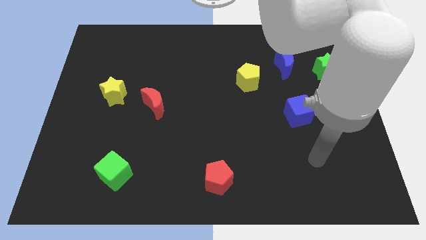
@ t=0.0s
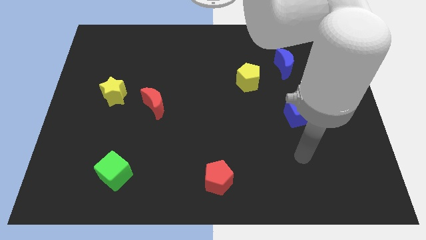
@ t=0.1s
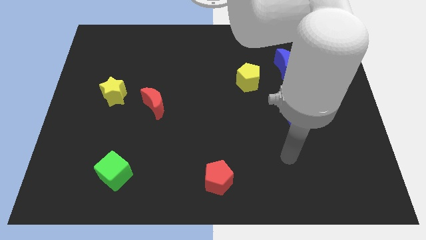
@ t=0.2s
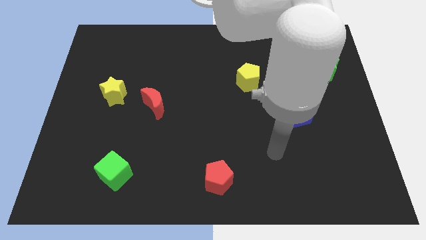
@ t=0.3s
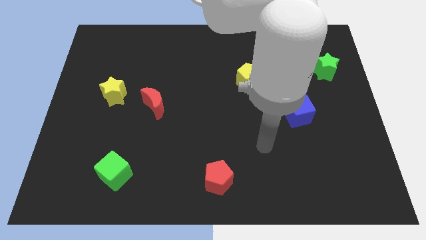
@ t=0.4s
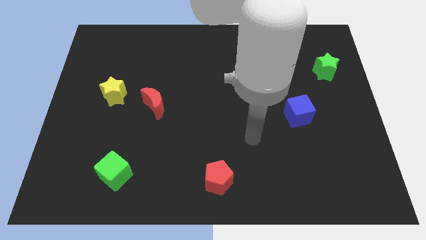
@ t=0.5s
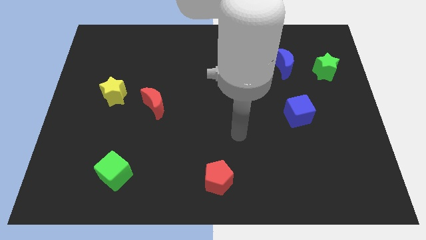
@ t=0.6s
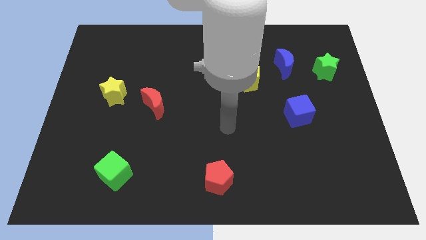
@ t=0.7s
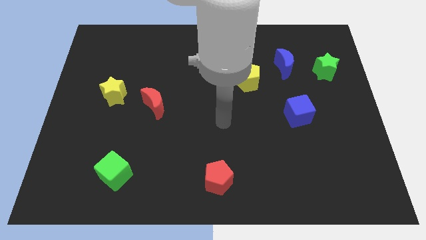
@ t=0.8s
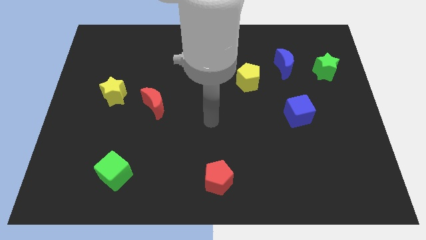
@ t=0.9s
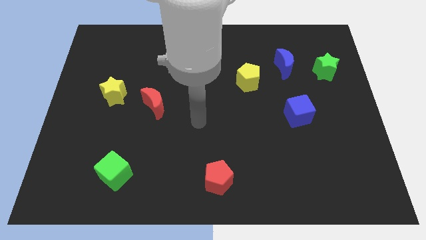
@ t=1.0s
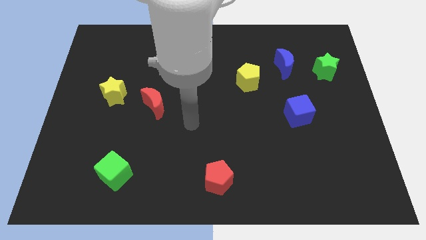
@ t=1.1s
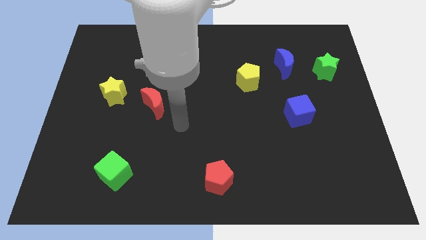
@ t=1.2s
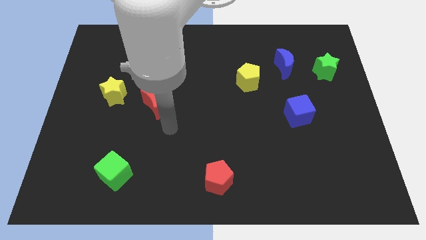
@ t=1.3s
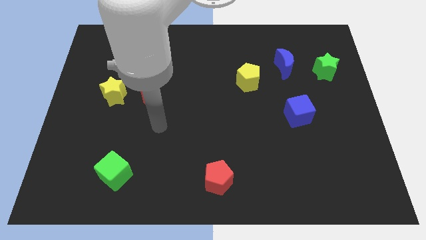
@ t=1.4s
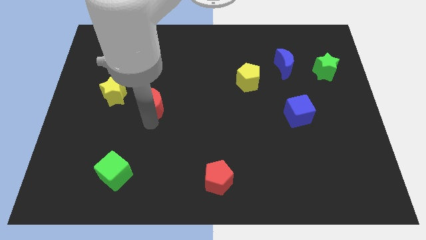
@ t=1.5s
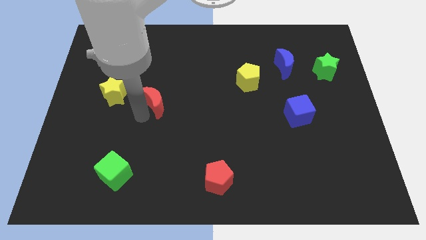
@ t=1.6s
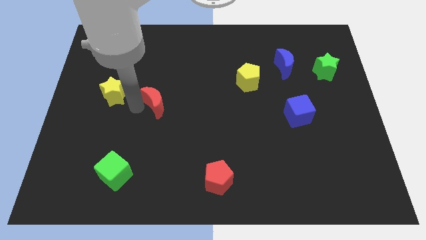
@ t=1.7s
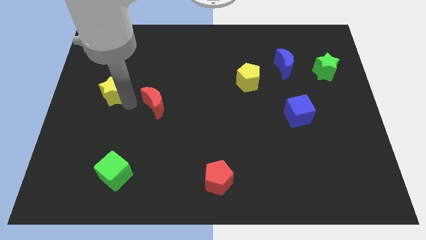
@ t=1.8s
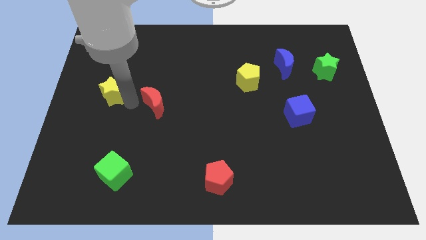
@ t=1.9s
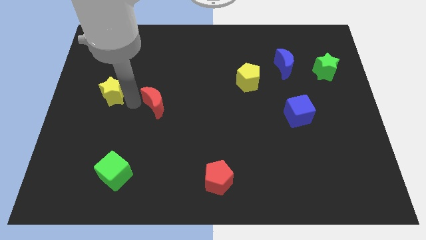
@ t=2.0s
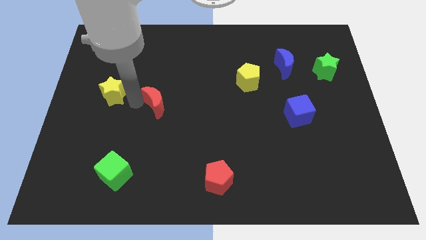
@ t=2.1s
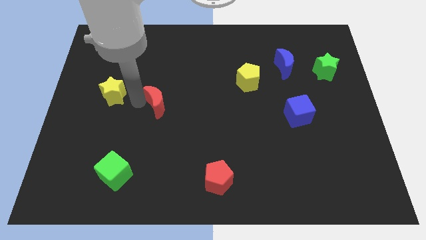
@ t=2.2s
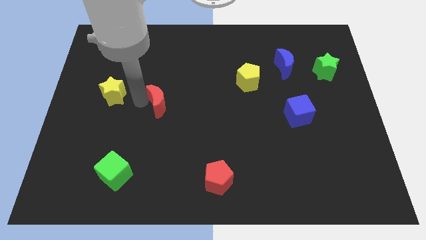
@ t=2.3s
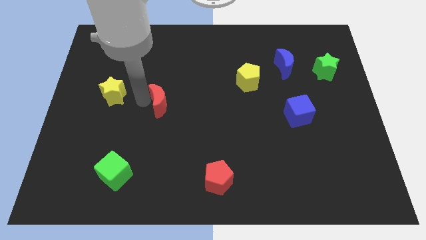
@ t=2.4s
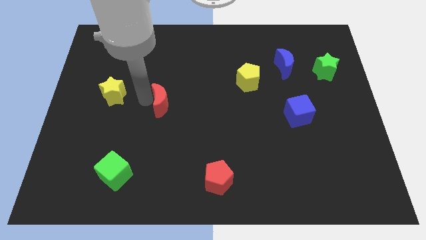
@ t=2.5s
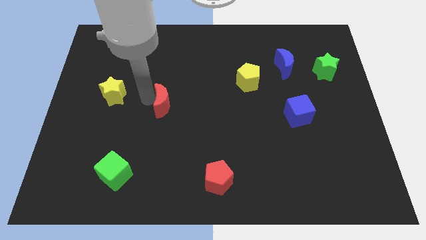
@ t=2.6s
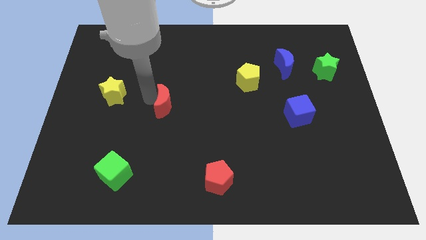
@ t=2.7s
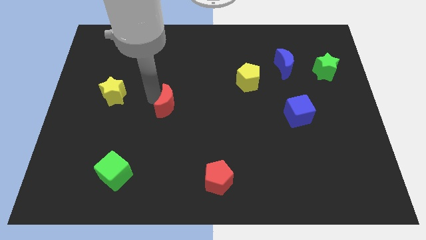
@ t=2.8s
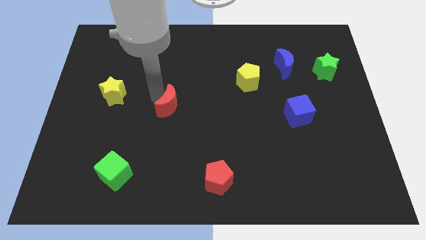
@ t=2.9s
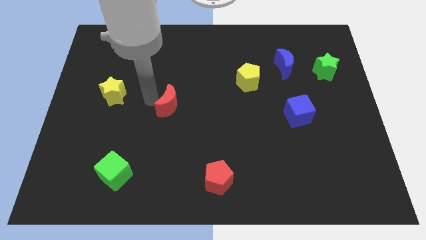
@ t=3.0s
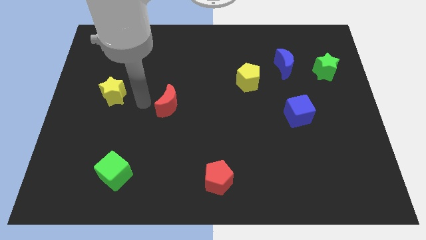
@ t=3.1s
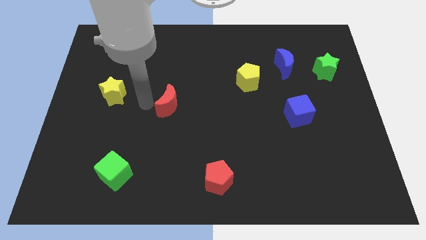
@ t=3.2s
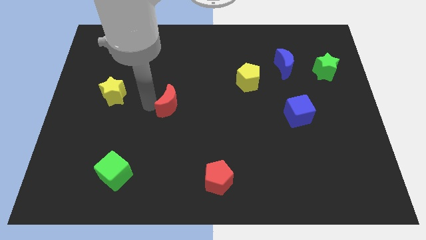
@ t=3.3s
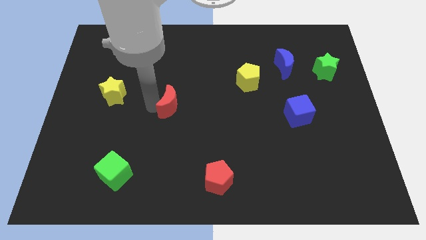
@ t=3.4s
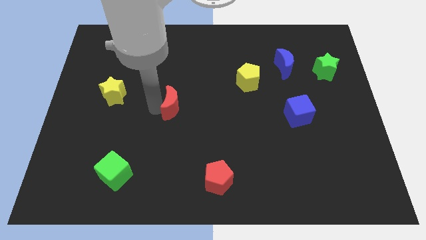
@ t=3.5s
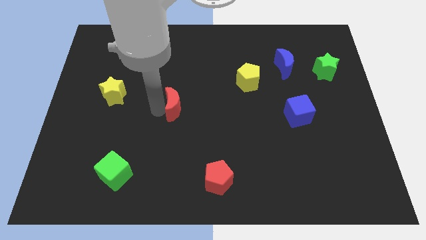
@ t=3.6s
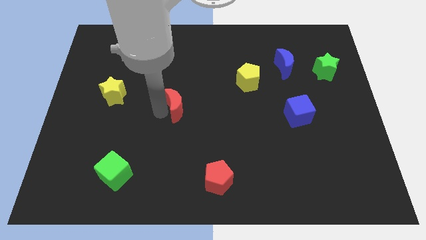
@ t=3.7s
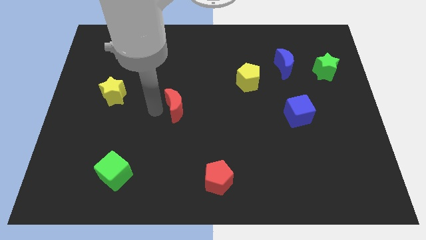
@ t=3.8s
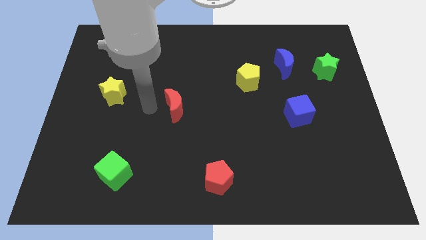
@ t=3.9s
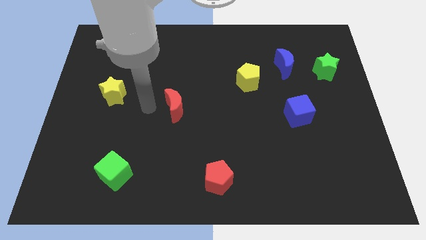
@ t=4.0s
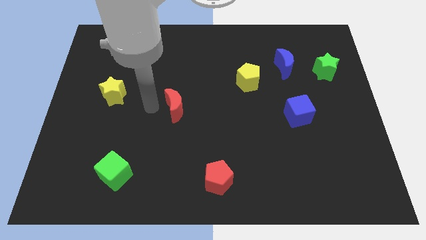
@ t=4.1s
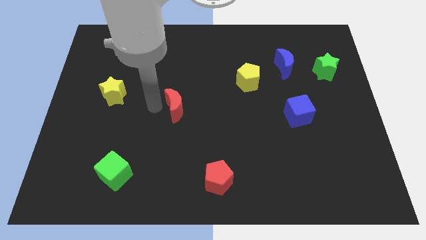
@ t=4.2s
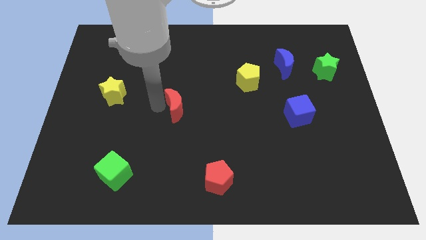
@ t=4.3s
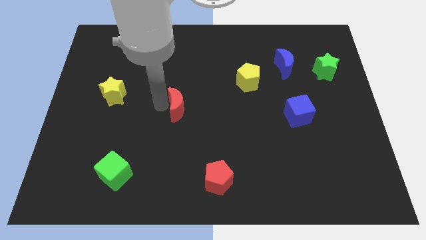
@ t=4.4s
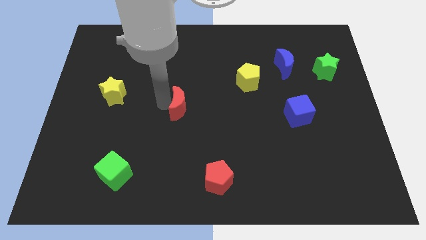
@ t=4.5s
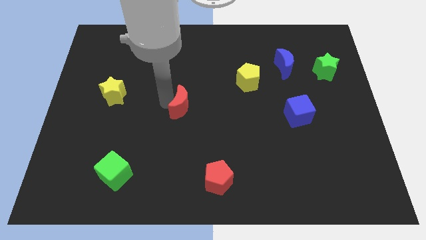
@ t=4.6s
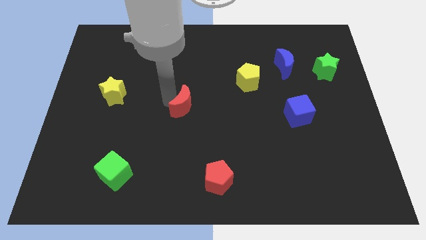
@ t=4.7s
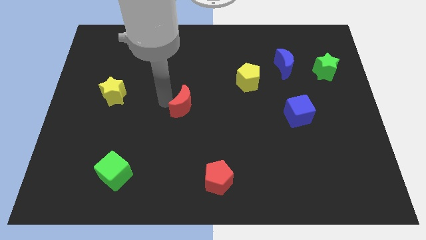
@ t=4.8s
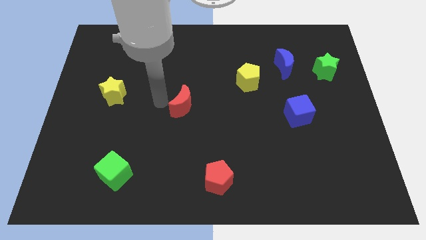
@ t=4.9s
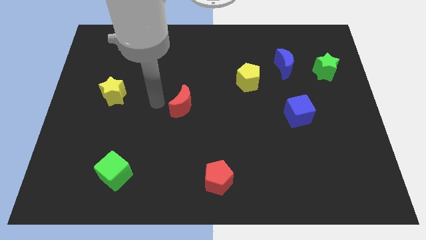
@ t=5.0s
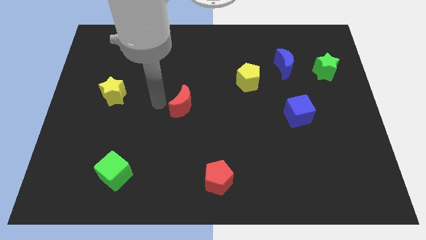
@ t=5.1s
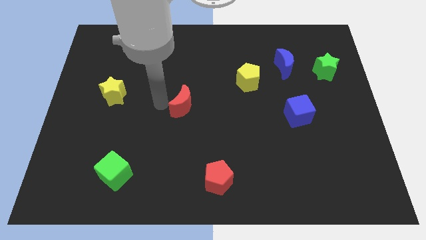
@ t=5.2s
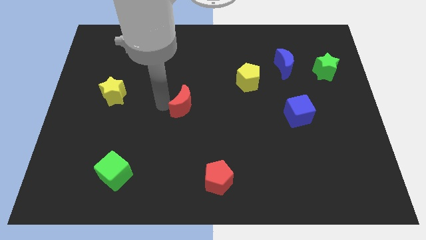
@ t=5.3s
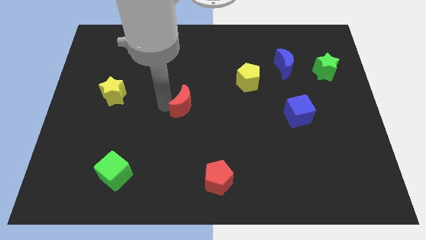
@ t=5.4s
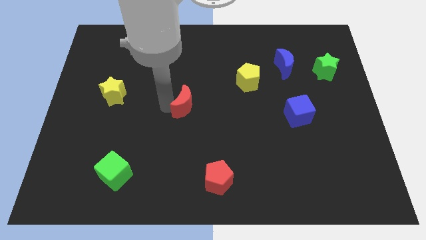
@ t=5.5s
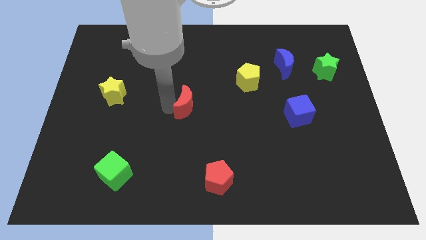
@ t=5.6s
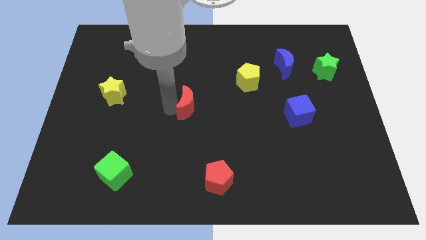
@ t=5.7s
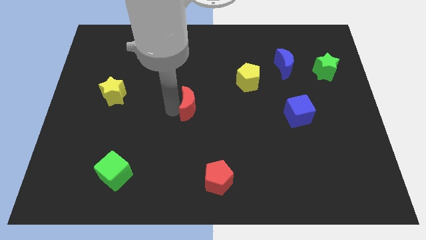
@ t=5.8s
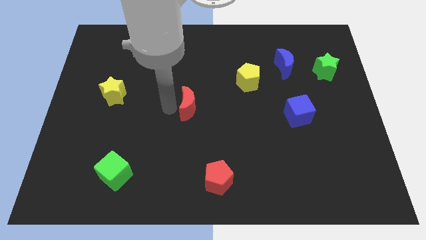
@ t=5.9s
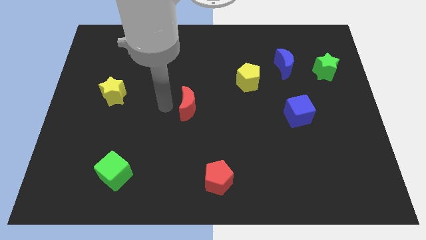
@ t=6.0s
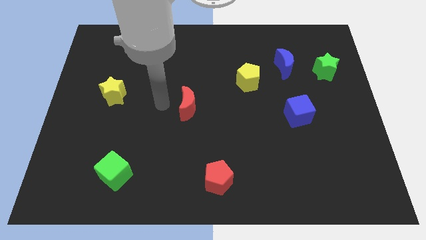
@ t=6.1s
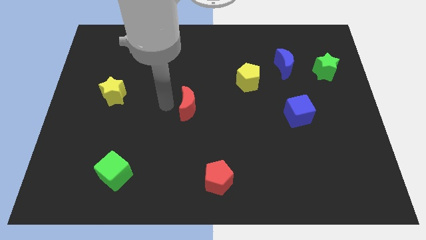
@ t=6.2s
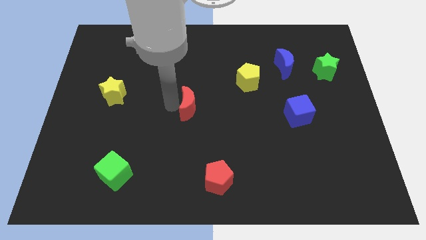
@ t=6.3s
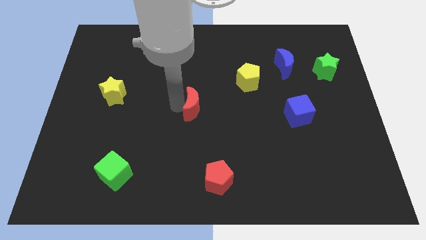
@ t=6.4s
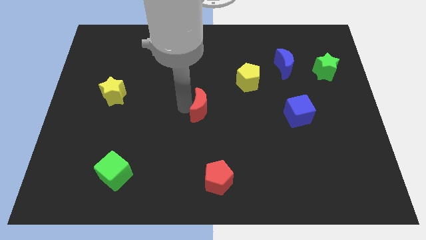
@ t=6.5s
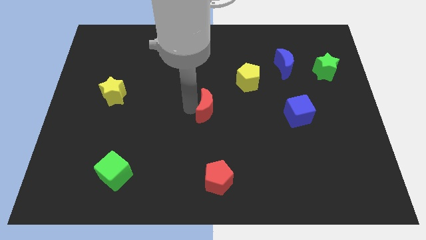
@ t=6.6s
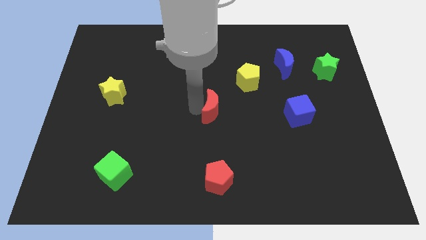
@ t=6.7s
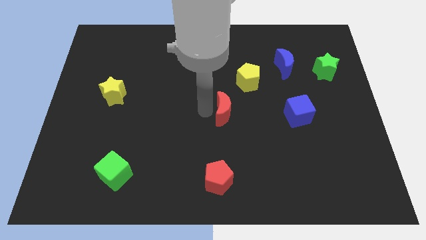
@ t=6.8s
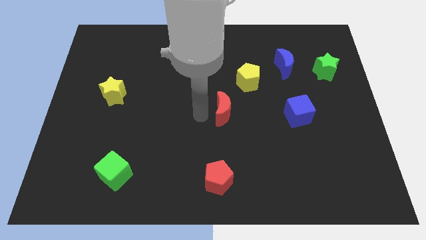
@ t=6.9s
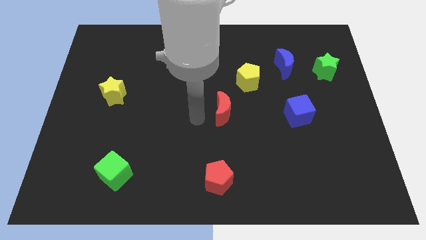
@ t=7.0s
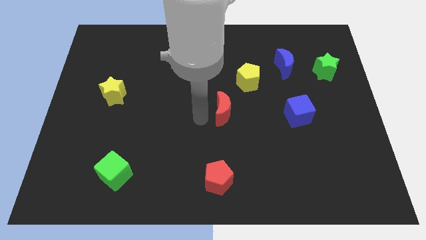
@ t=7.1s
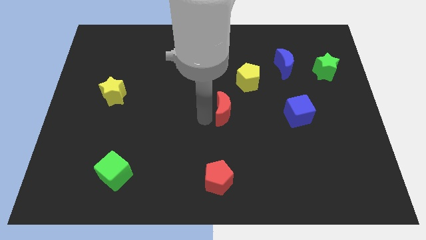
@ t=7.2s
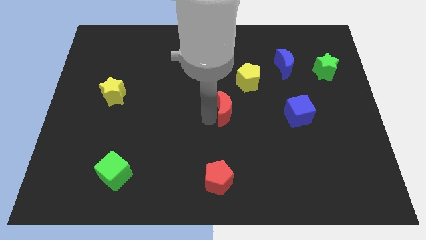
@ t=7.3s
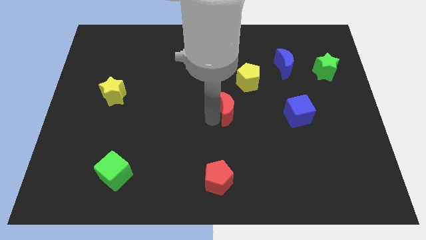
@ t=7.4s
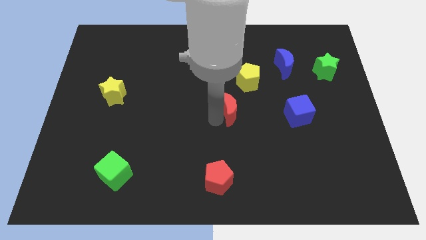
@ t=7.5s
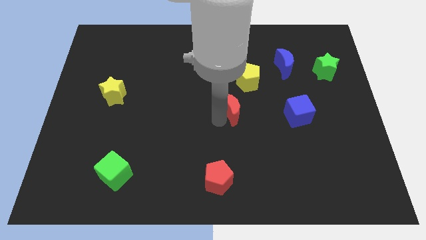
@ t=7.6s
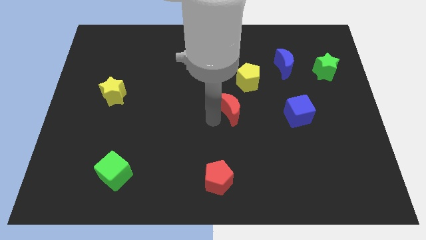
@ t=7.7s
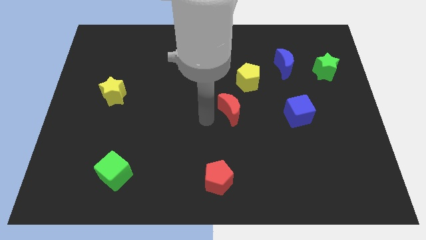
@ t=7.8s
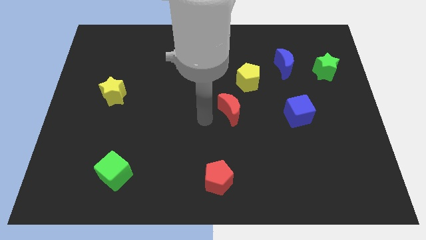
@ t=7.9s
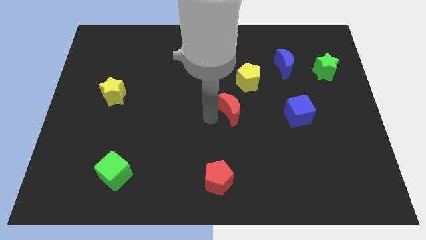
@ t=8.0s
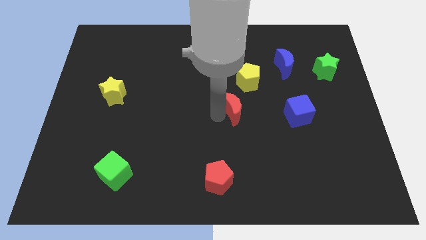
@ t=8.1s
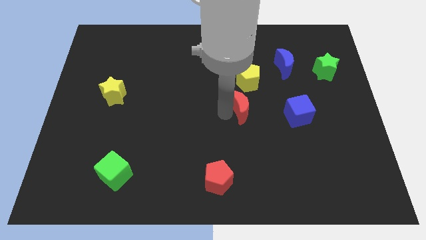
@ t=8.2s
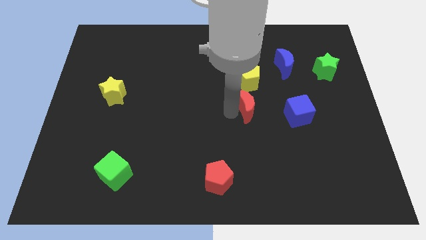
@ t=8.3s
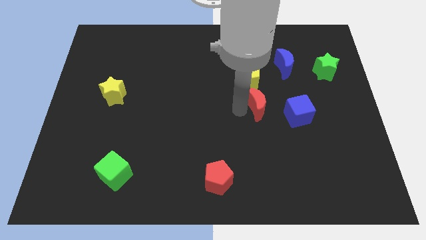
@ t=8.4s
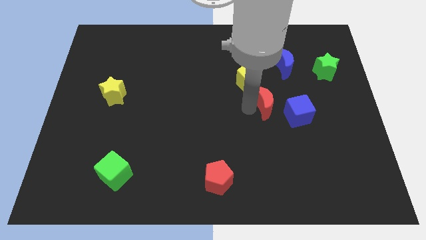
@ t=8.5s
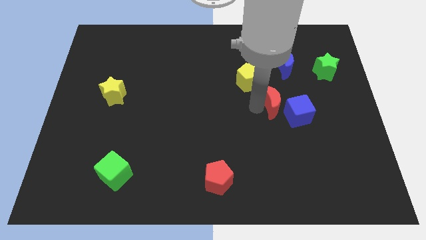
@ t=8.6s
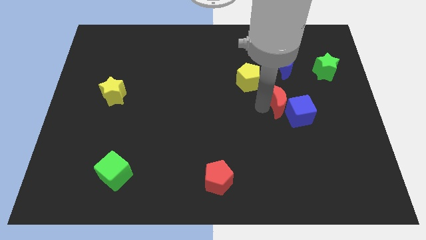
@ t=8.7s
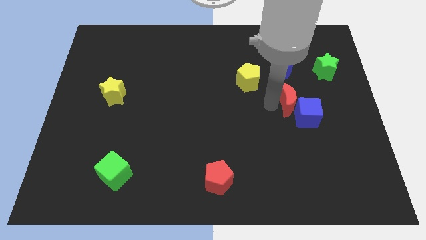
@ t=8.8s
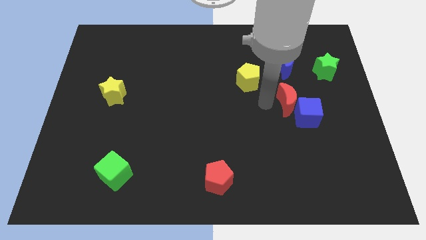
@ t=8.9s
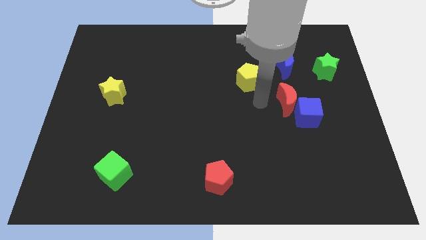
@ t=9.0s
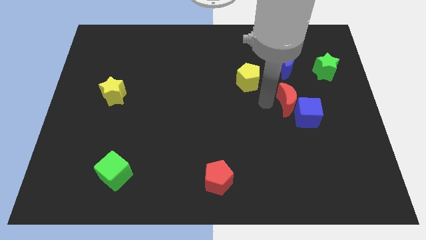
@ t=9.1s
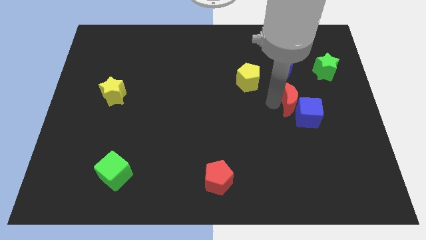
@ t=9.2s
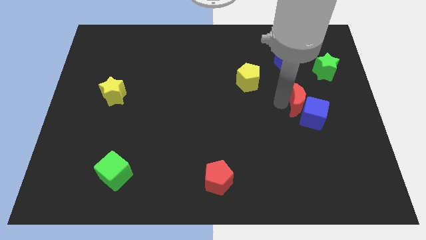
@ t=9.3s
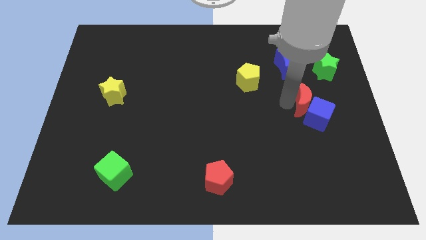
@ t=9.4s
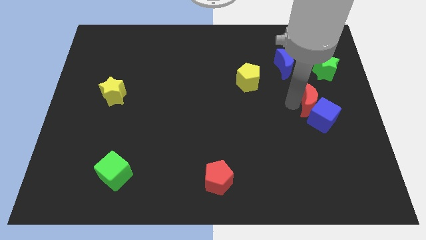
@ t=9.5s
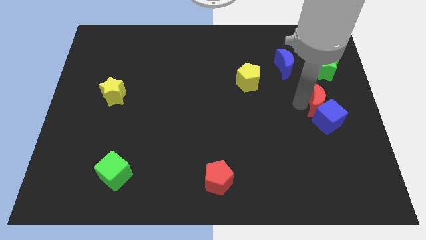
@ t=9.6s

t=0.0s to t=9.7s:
put the red moon below the green star
